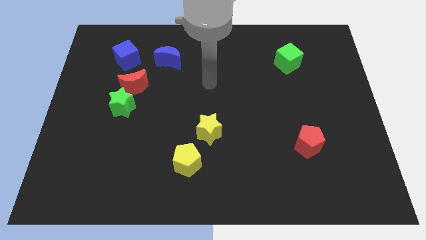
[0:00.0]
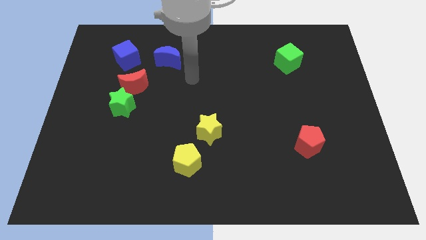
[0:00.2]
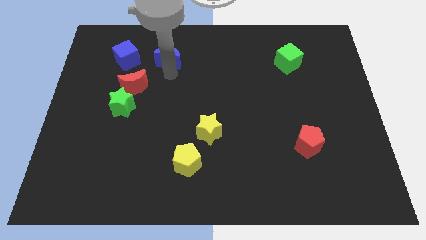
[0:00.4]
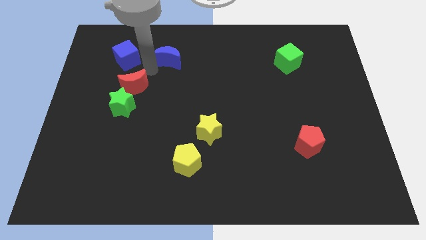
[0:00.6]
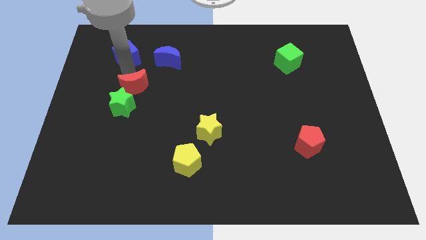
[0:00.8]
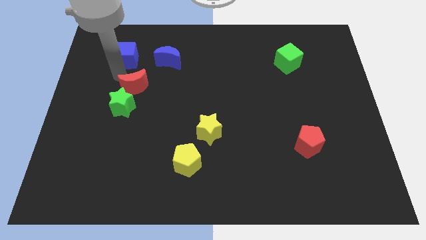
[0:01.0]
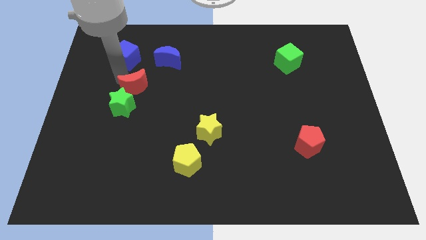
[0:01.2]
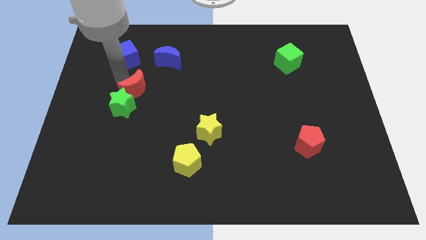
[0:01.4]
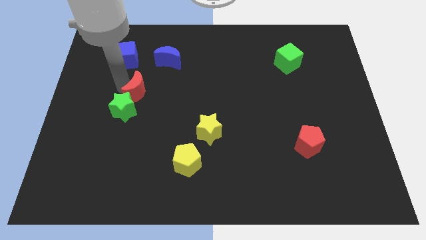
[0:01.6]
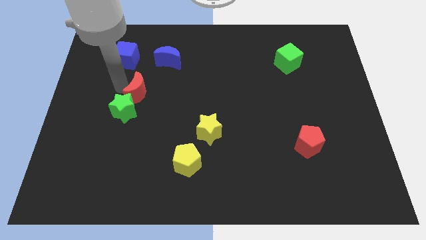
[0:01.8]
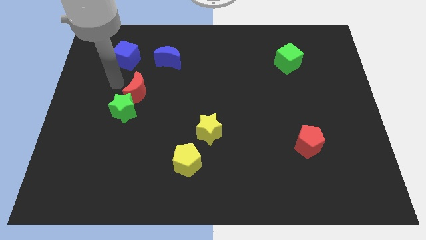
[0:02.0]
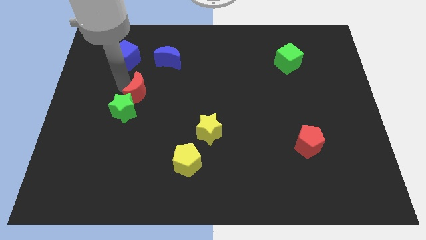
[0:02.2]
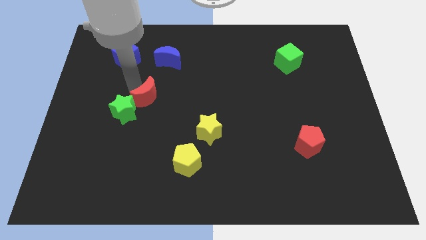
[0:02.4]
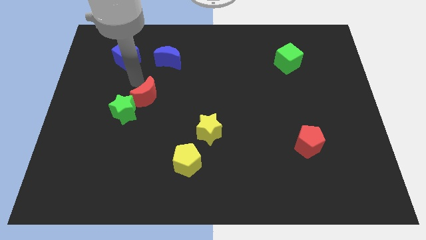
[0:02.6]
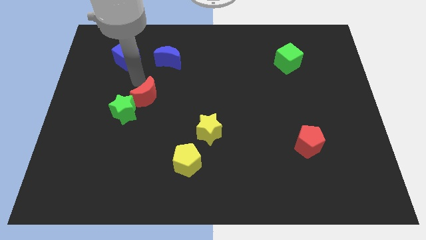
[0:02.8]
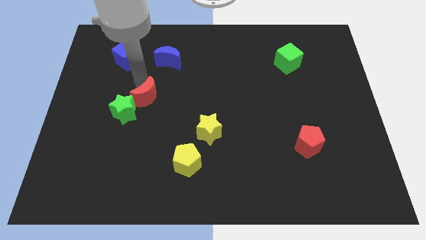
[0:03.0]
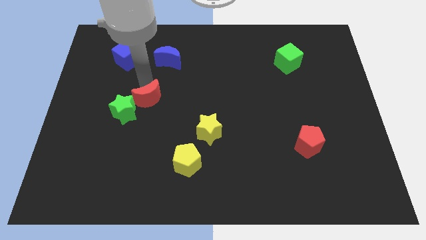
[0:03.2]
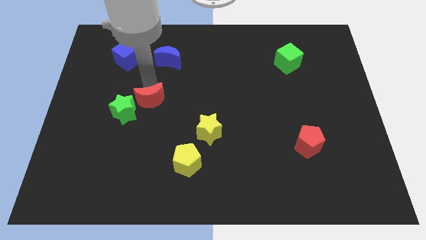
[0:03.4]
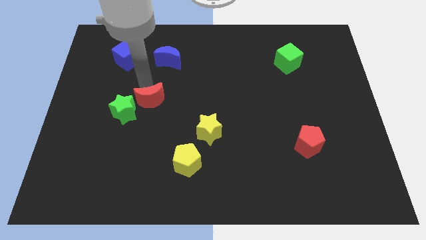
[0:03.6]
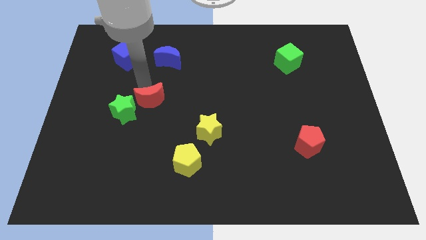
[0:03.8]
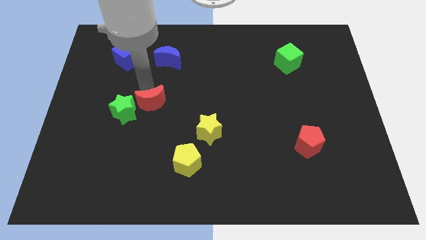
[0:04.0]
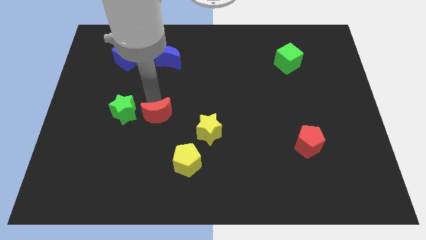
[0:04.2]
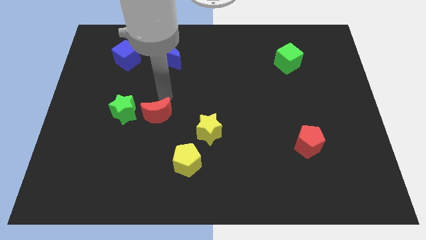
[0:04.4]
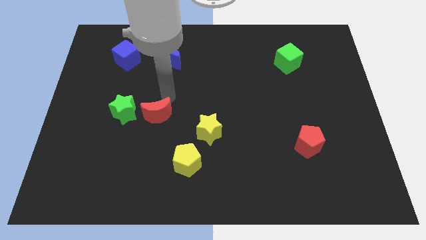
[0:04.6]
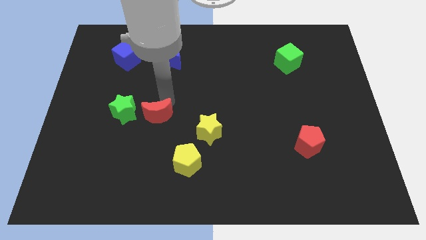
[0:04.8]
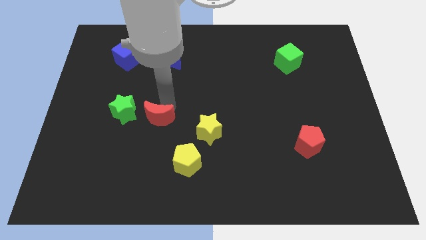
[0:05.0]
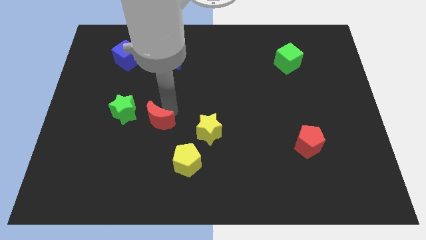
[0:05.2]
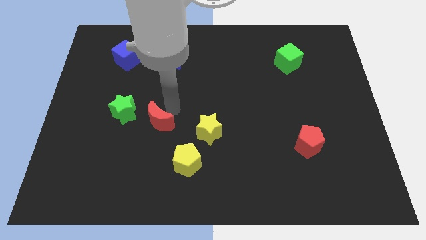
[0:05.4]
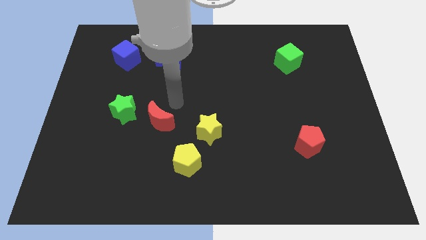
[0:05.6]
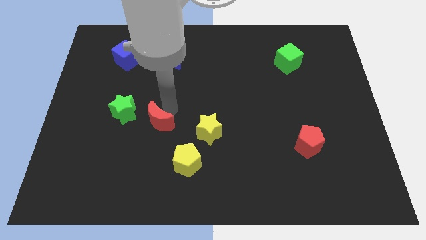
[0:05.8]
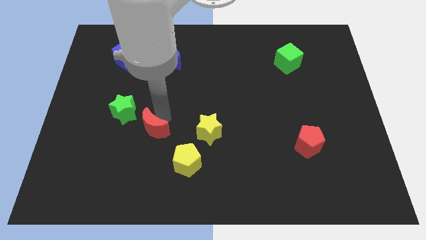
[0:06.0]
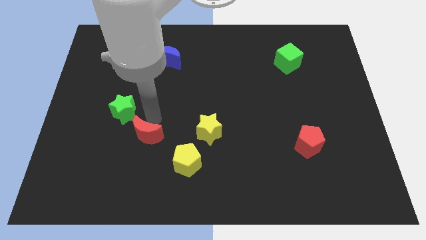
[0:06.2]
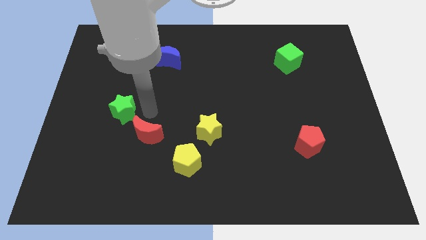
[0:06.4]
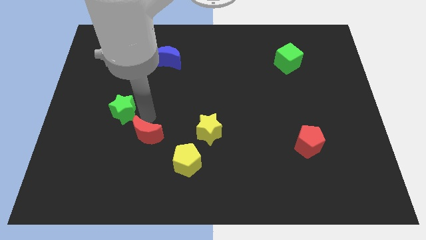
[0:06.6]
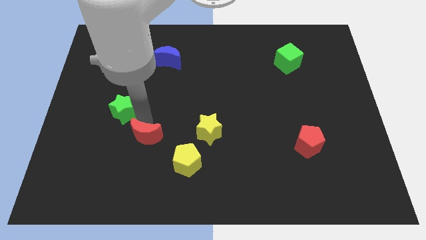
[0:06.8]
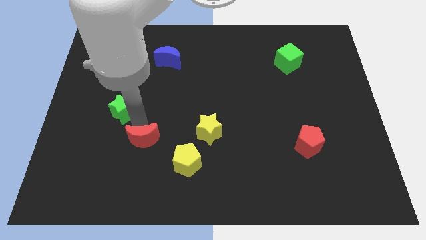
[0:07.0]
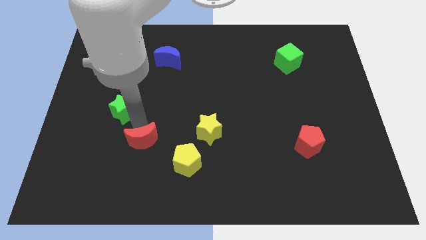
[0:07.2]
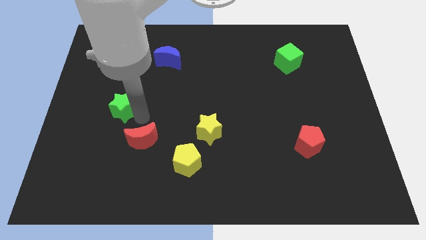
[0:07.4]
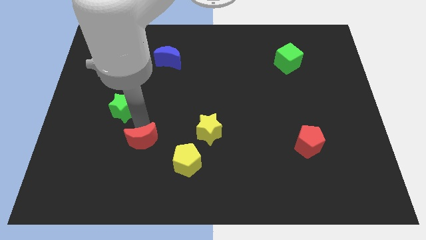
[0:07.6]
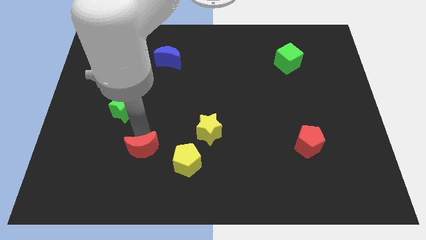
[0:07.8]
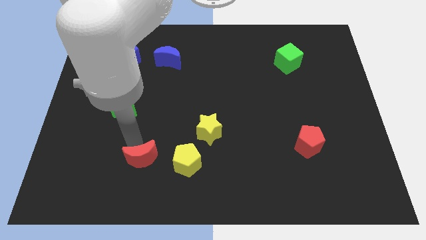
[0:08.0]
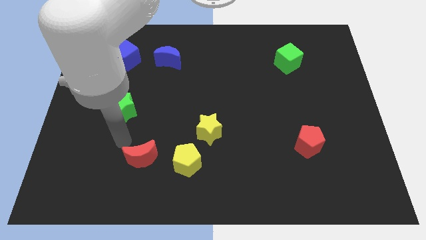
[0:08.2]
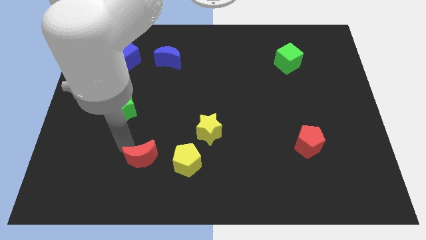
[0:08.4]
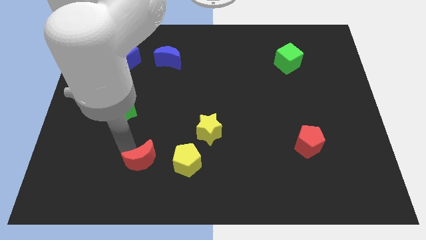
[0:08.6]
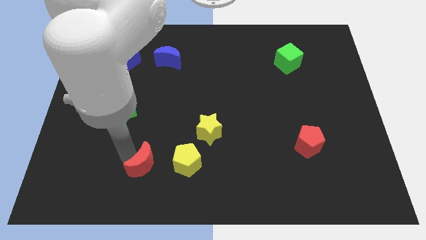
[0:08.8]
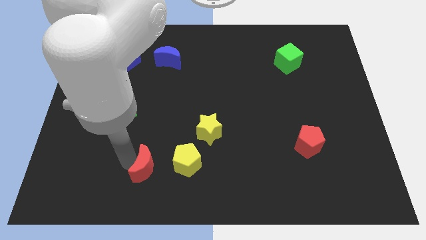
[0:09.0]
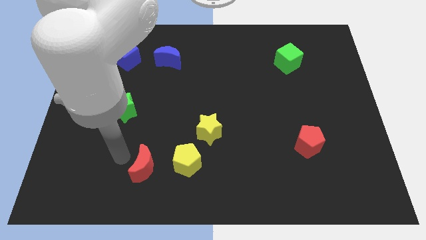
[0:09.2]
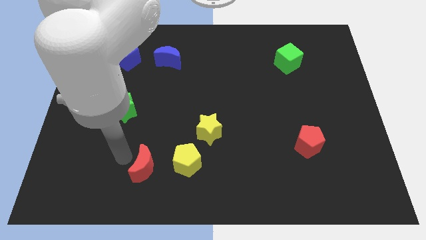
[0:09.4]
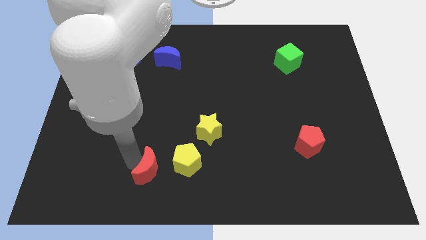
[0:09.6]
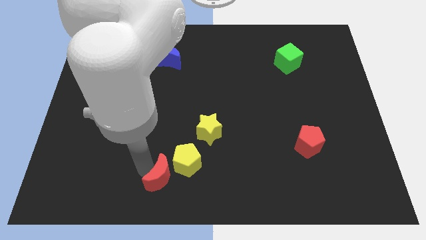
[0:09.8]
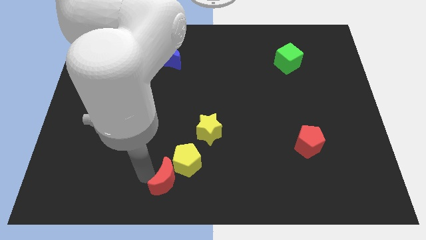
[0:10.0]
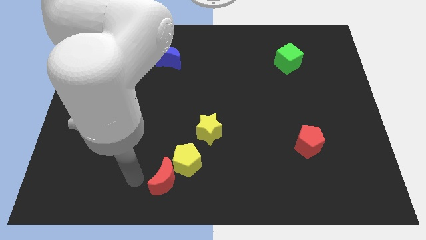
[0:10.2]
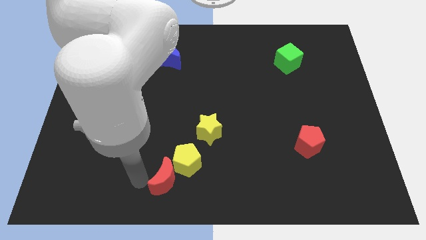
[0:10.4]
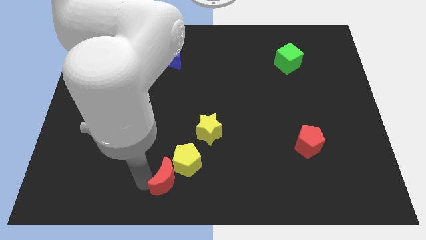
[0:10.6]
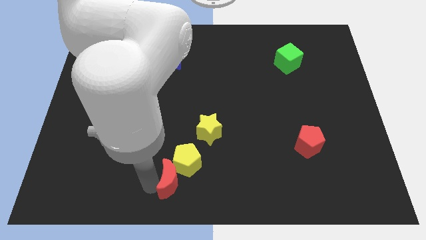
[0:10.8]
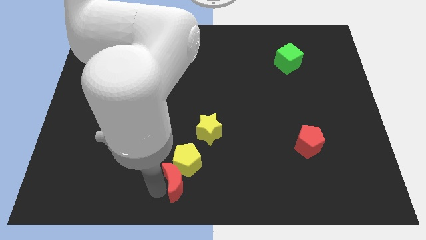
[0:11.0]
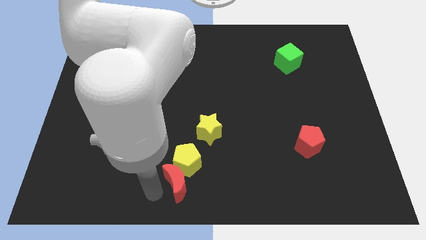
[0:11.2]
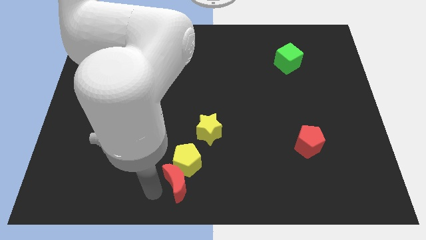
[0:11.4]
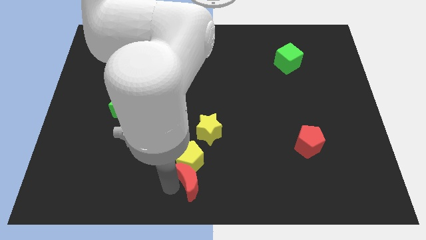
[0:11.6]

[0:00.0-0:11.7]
push the red moon below the yellow star

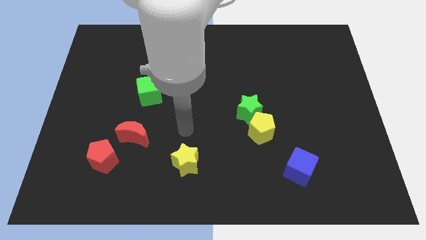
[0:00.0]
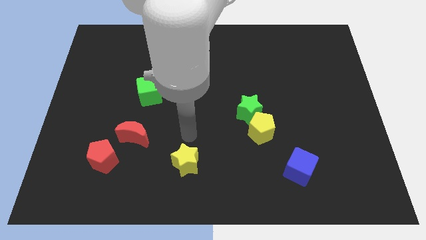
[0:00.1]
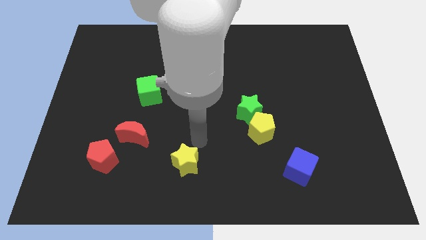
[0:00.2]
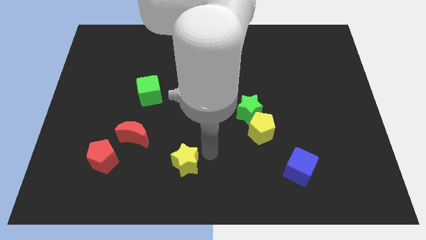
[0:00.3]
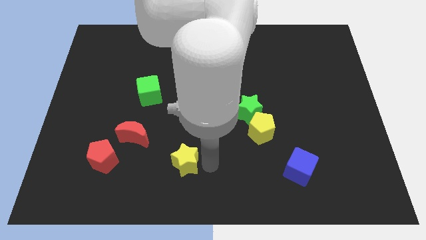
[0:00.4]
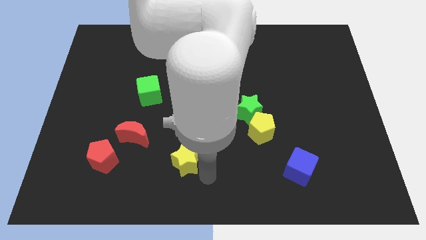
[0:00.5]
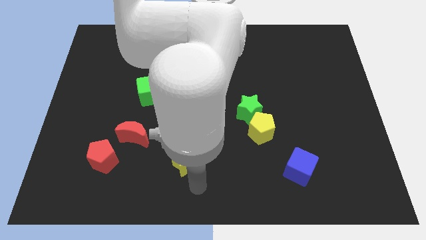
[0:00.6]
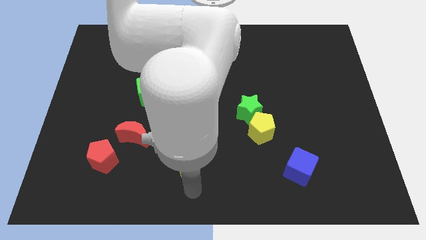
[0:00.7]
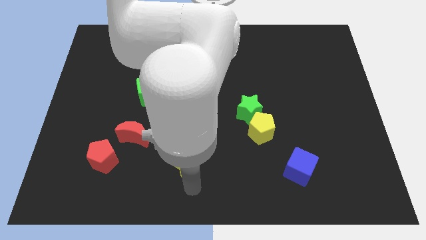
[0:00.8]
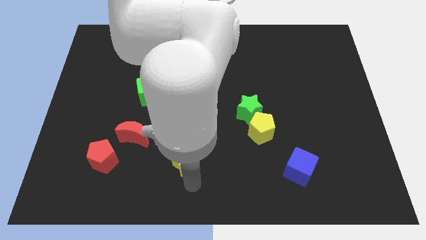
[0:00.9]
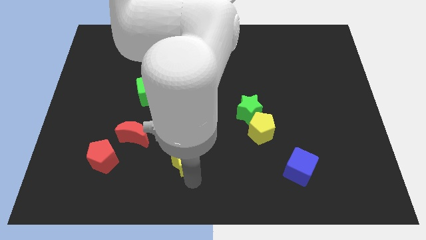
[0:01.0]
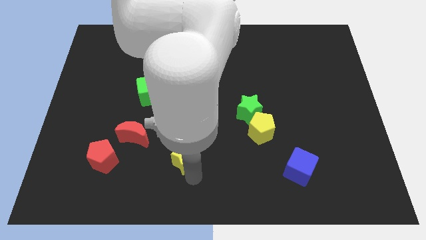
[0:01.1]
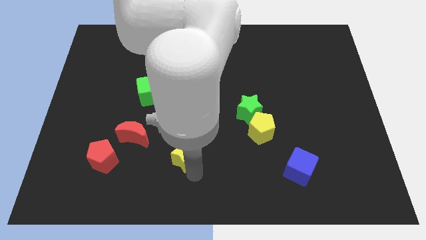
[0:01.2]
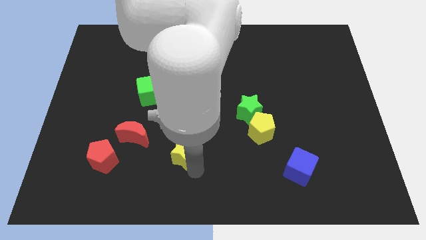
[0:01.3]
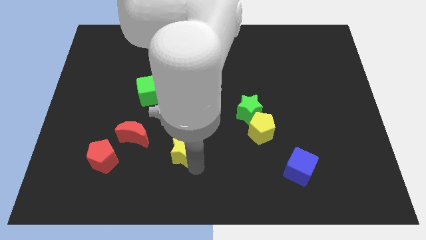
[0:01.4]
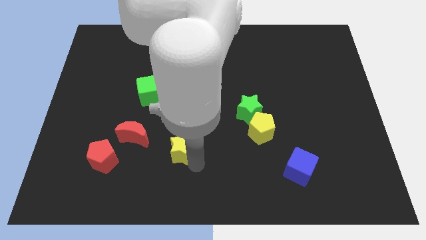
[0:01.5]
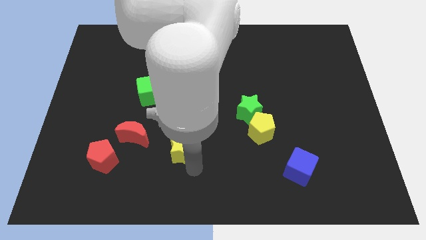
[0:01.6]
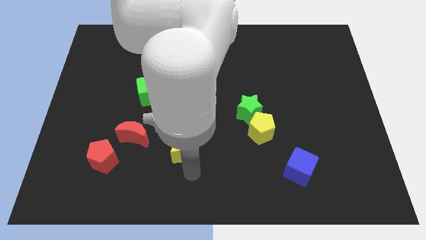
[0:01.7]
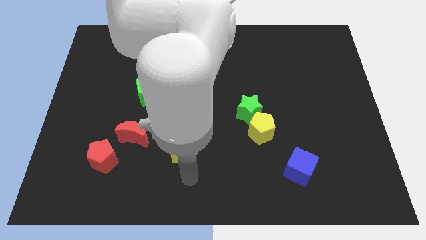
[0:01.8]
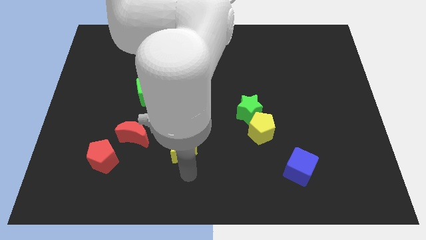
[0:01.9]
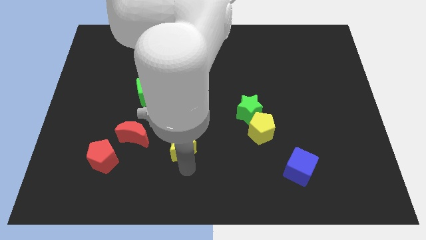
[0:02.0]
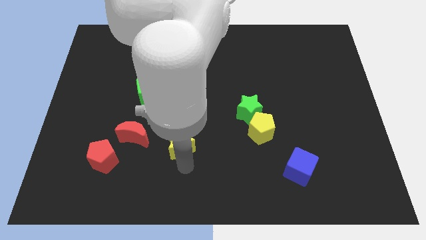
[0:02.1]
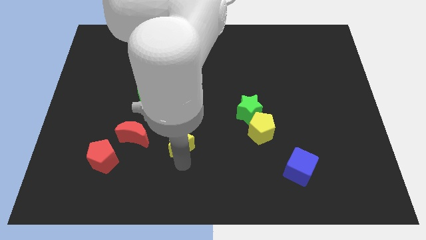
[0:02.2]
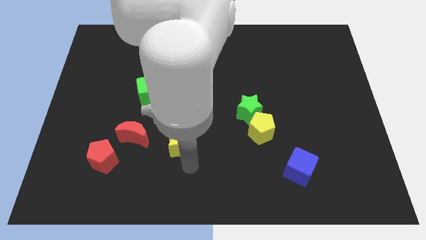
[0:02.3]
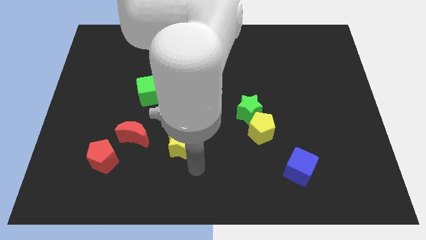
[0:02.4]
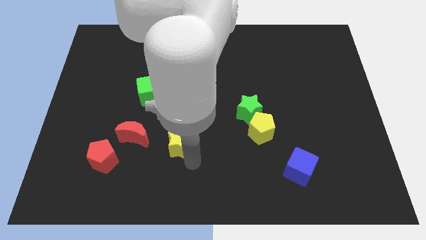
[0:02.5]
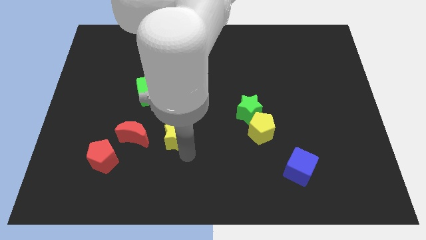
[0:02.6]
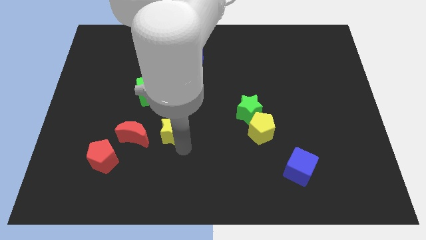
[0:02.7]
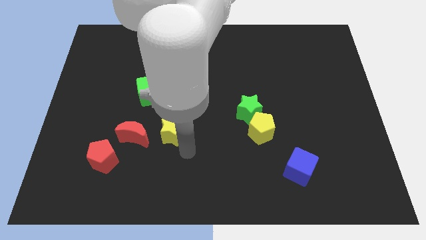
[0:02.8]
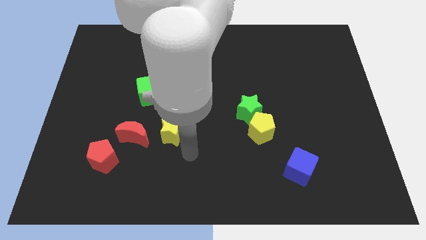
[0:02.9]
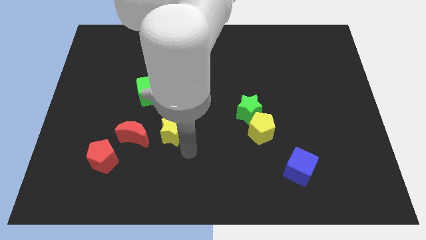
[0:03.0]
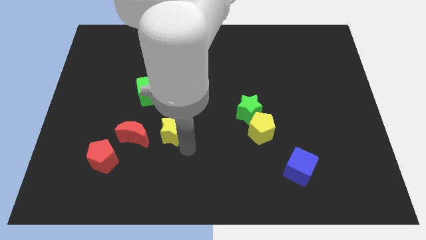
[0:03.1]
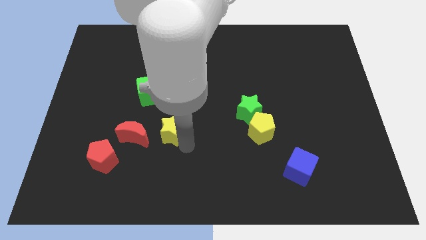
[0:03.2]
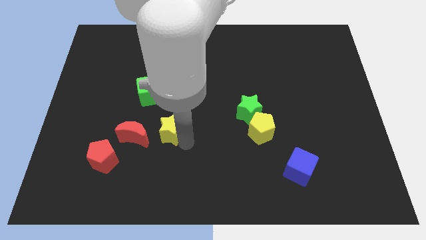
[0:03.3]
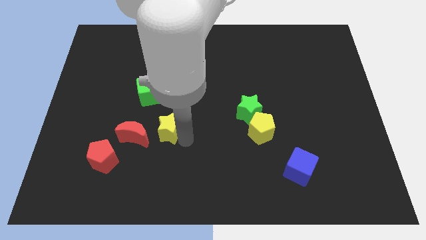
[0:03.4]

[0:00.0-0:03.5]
slide the yellow star to the top right side of the red moon
